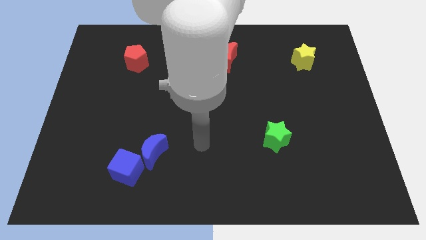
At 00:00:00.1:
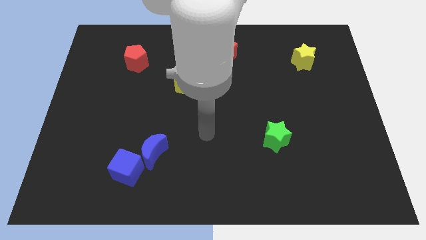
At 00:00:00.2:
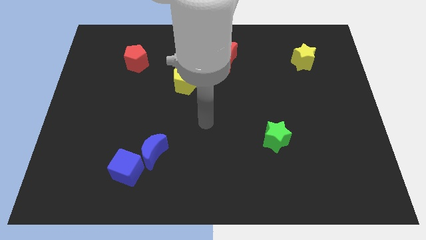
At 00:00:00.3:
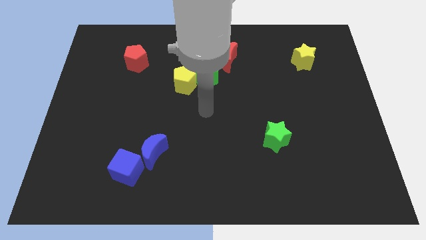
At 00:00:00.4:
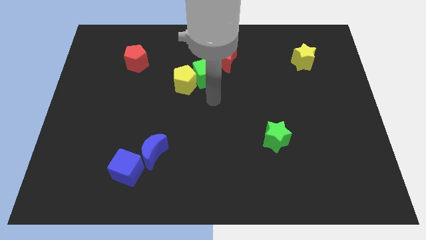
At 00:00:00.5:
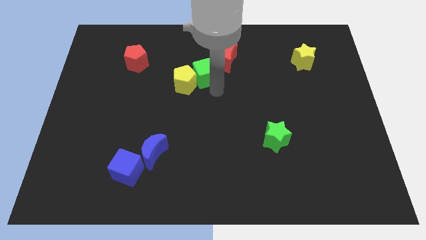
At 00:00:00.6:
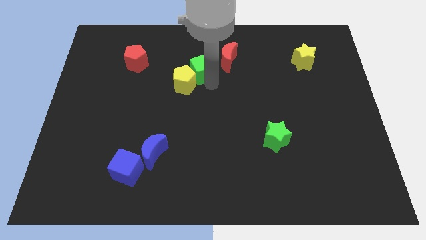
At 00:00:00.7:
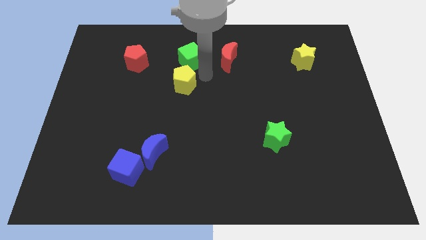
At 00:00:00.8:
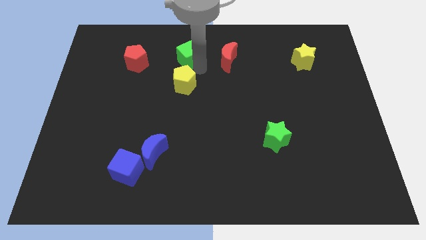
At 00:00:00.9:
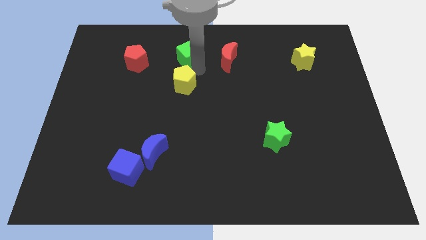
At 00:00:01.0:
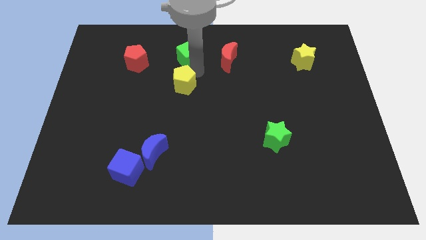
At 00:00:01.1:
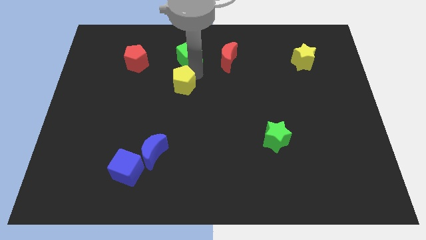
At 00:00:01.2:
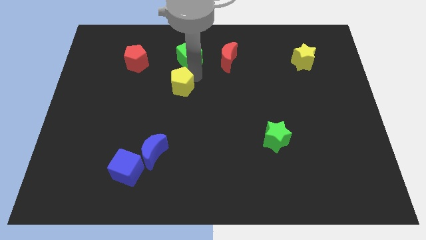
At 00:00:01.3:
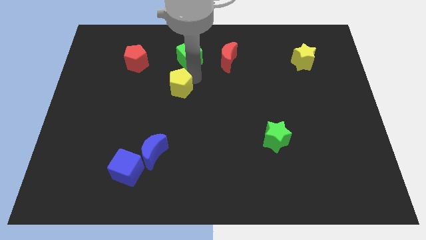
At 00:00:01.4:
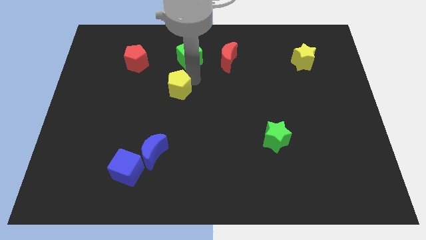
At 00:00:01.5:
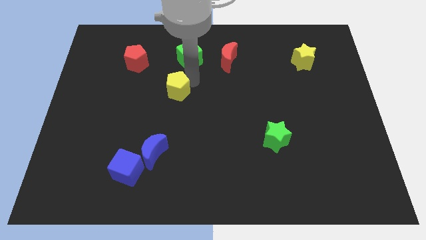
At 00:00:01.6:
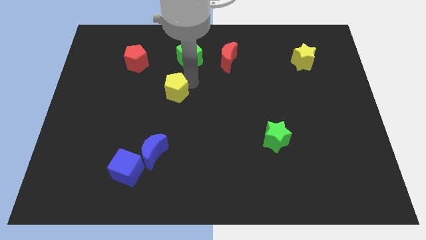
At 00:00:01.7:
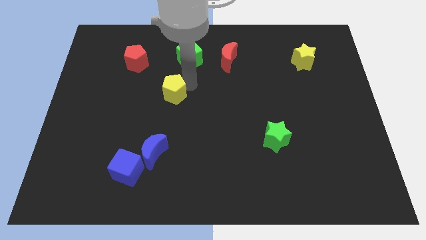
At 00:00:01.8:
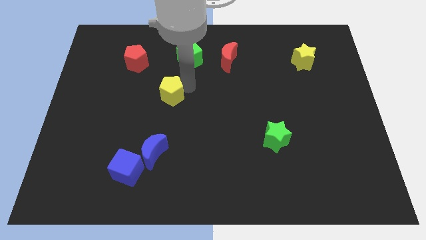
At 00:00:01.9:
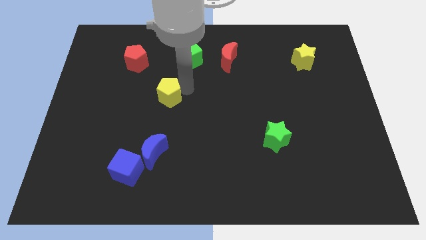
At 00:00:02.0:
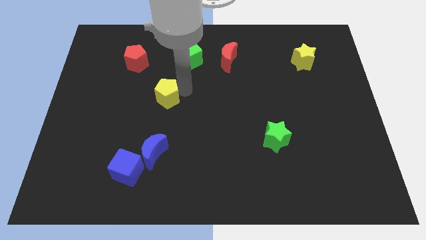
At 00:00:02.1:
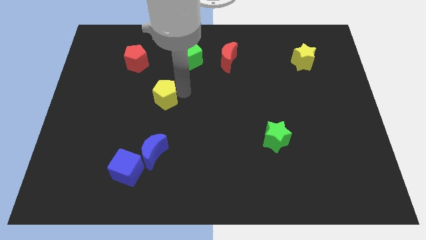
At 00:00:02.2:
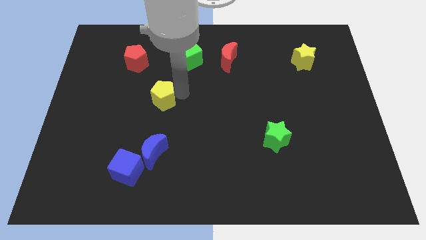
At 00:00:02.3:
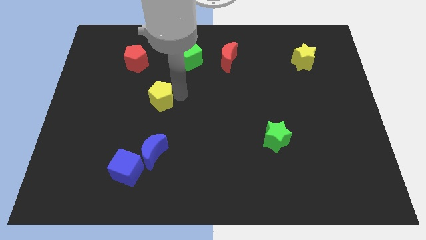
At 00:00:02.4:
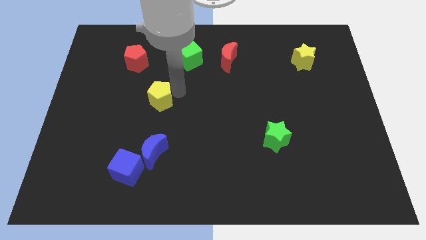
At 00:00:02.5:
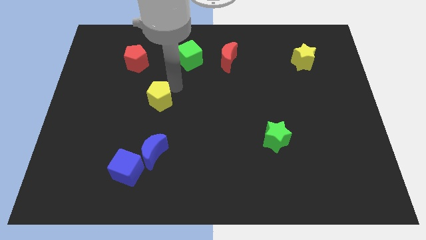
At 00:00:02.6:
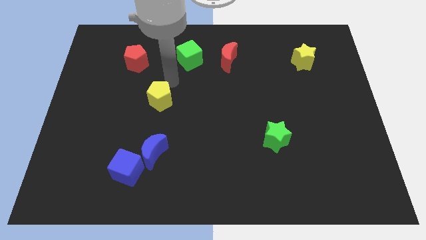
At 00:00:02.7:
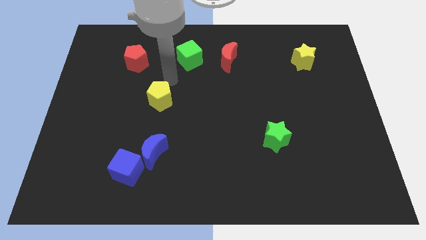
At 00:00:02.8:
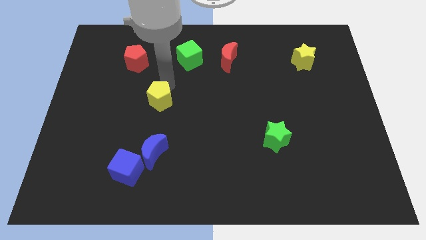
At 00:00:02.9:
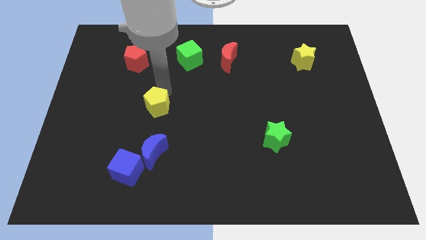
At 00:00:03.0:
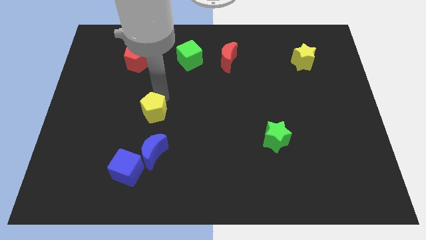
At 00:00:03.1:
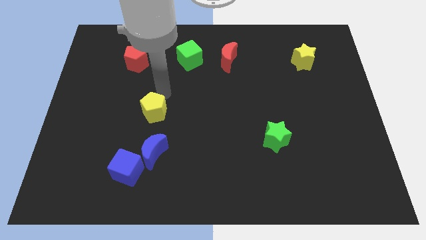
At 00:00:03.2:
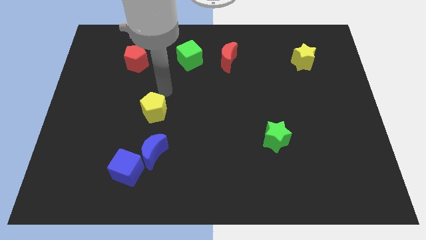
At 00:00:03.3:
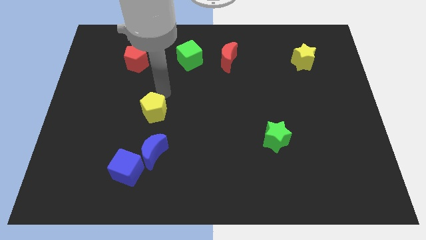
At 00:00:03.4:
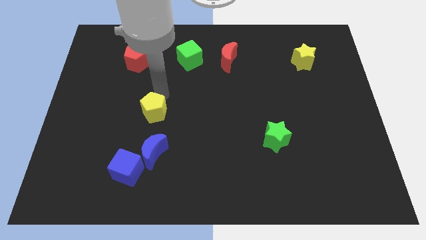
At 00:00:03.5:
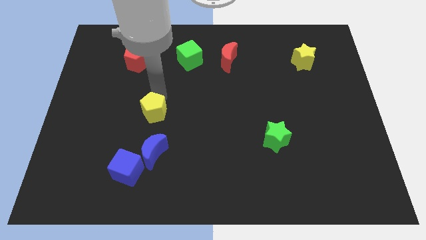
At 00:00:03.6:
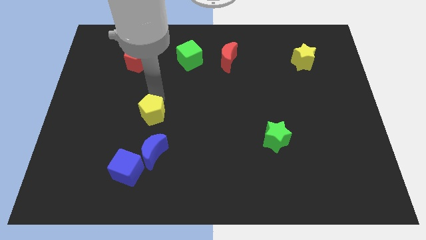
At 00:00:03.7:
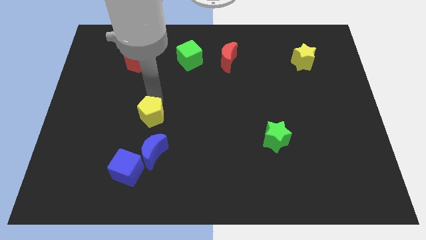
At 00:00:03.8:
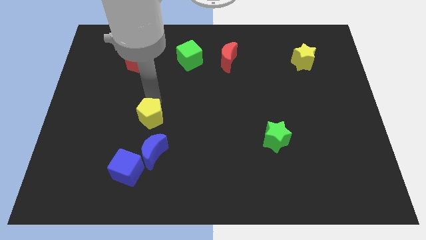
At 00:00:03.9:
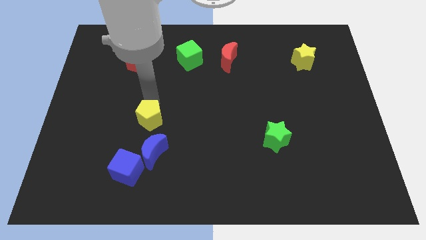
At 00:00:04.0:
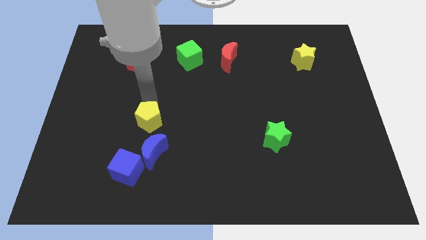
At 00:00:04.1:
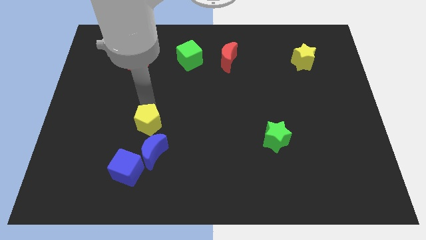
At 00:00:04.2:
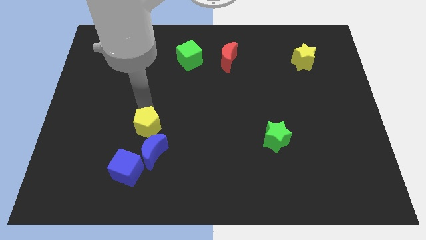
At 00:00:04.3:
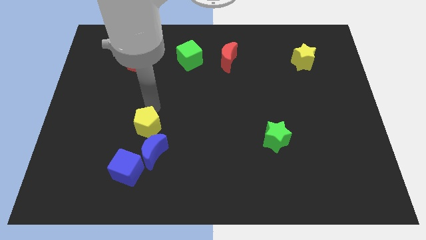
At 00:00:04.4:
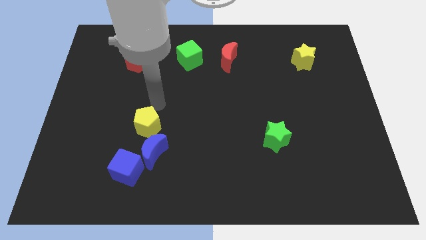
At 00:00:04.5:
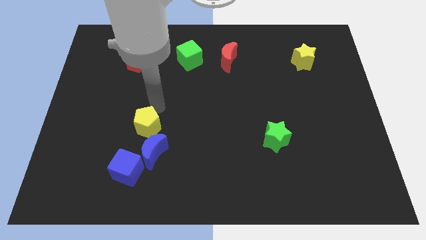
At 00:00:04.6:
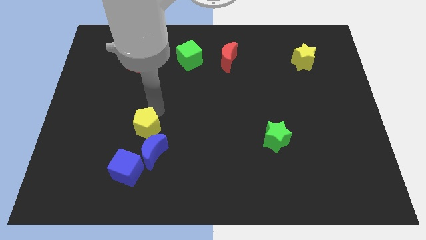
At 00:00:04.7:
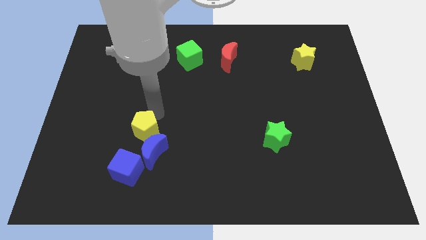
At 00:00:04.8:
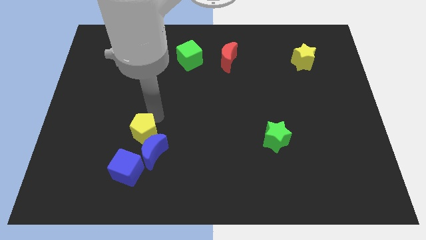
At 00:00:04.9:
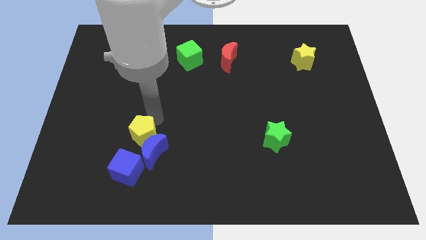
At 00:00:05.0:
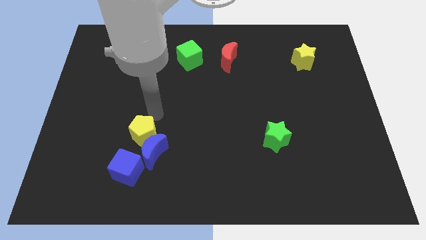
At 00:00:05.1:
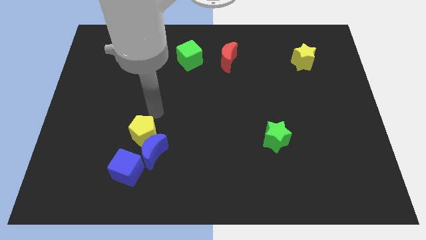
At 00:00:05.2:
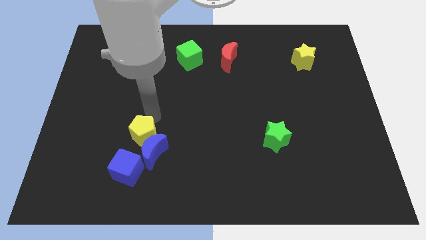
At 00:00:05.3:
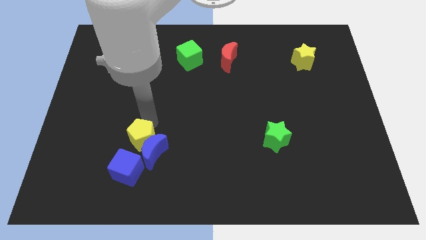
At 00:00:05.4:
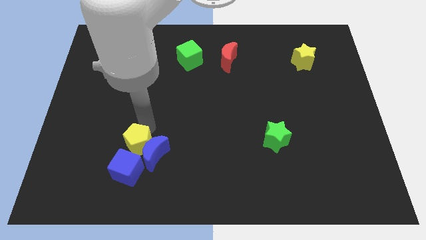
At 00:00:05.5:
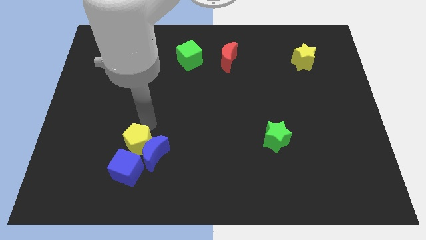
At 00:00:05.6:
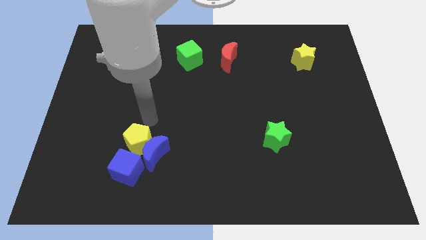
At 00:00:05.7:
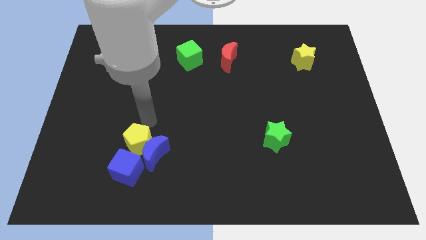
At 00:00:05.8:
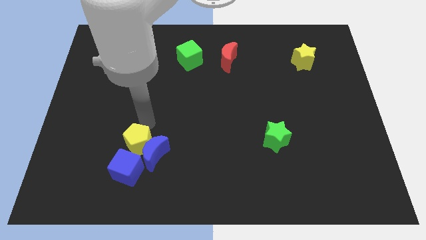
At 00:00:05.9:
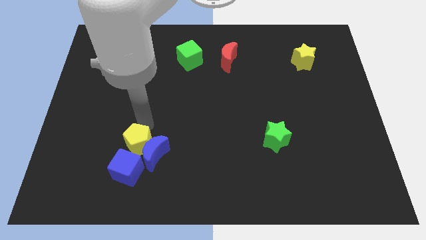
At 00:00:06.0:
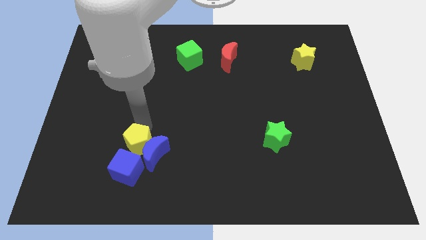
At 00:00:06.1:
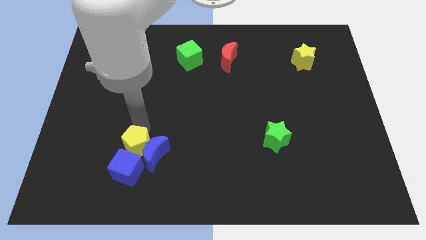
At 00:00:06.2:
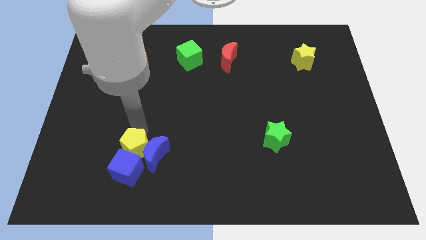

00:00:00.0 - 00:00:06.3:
push the yellow pentagon to the blue cube
